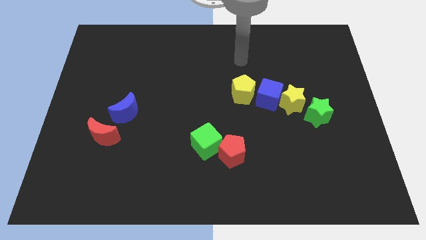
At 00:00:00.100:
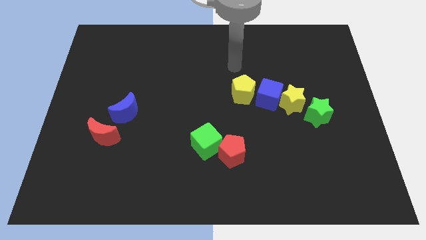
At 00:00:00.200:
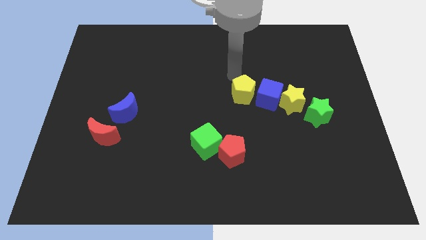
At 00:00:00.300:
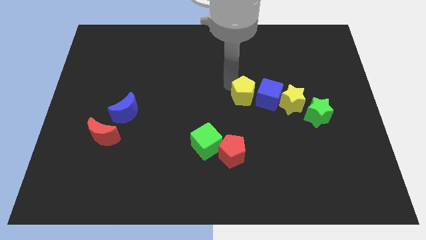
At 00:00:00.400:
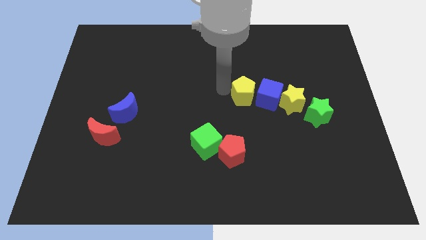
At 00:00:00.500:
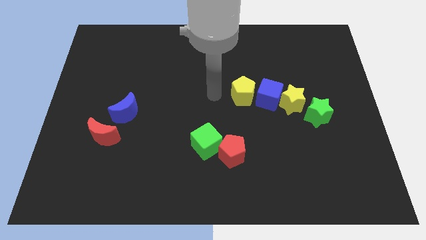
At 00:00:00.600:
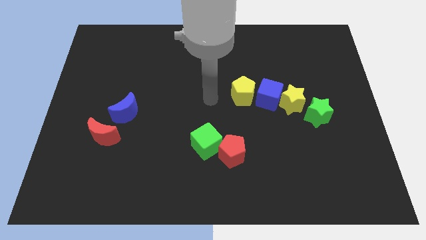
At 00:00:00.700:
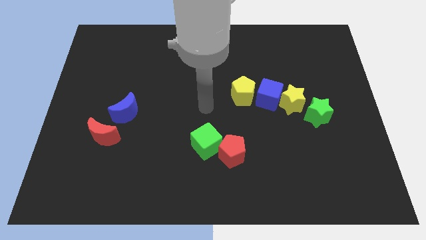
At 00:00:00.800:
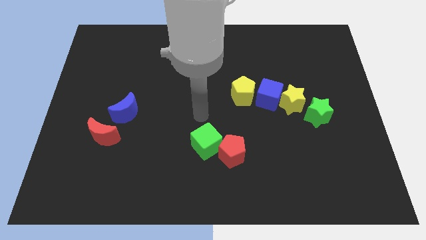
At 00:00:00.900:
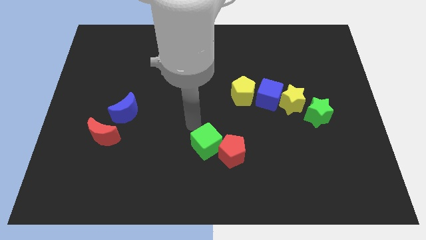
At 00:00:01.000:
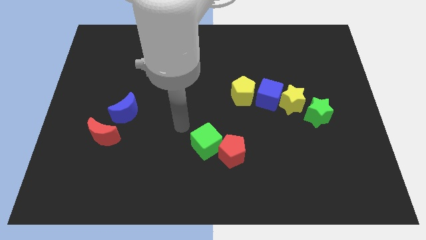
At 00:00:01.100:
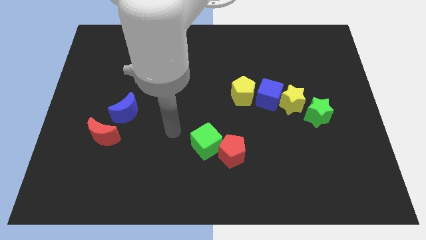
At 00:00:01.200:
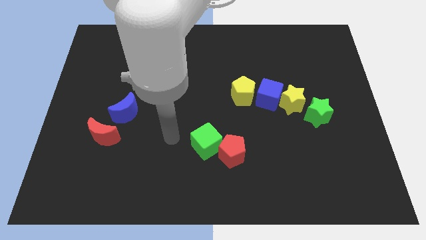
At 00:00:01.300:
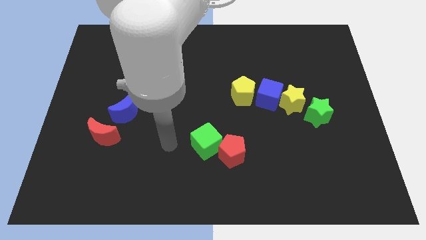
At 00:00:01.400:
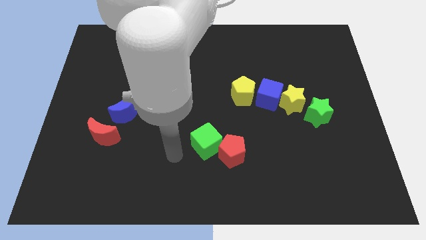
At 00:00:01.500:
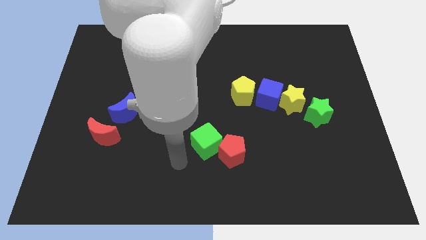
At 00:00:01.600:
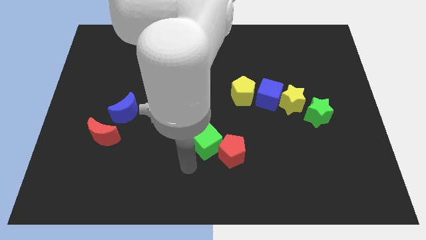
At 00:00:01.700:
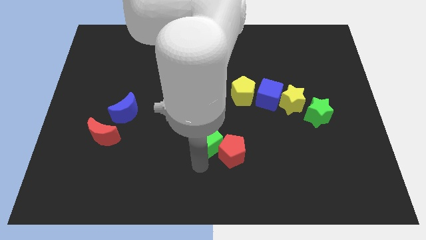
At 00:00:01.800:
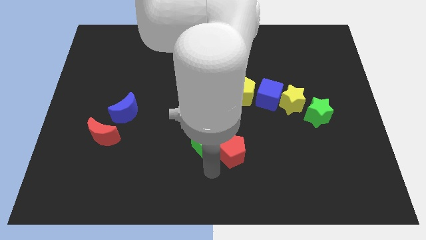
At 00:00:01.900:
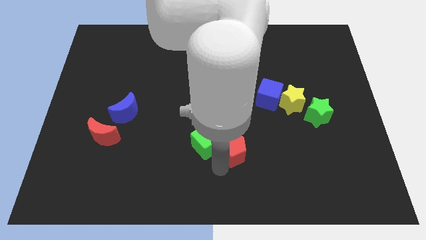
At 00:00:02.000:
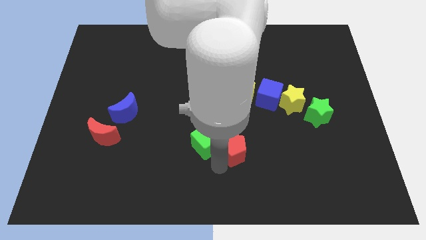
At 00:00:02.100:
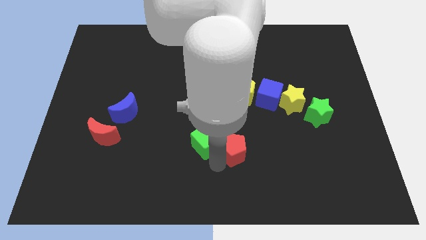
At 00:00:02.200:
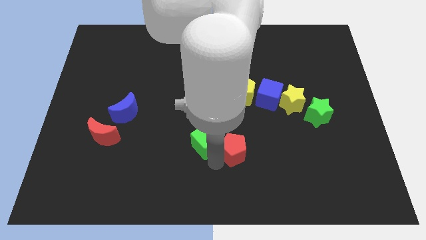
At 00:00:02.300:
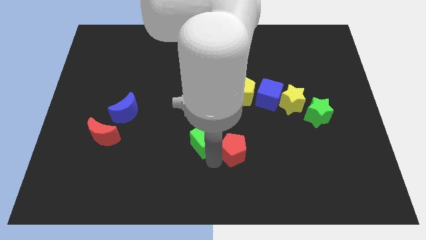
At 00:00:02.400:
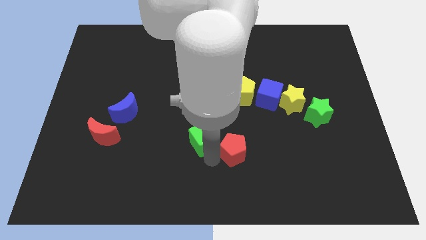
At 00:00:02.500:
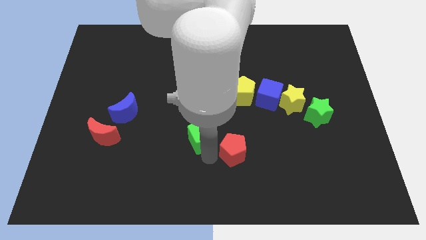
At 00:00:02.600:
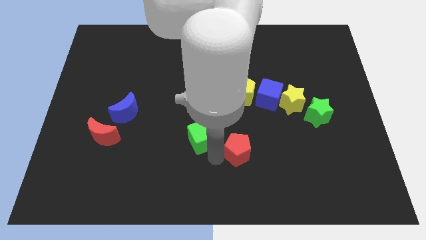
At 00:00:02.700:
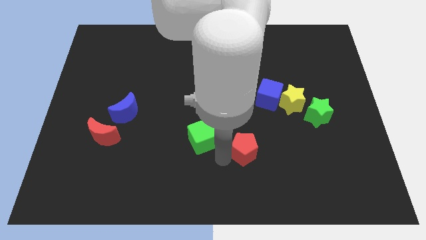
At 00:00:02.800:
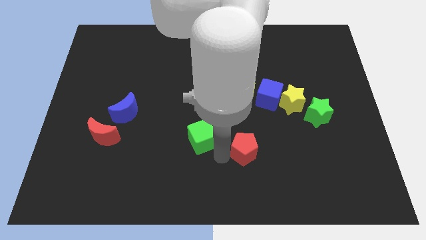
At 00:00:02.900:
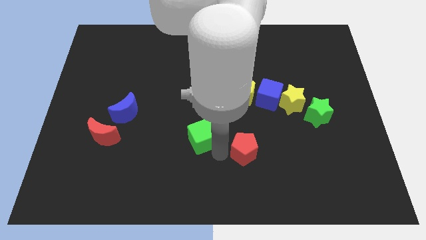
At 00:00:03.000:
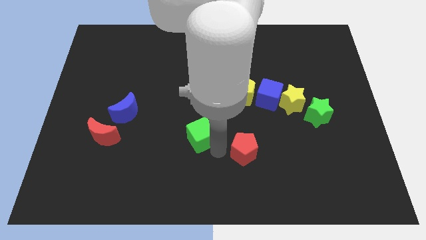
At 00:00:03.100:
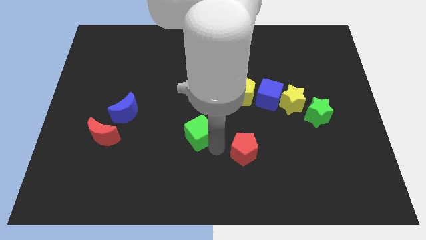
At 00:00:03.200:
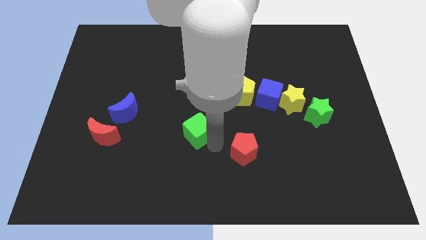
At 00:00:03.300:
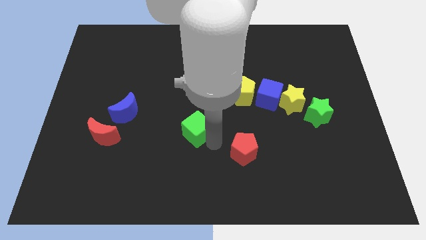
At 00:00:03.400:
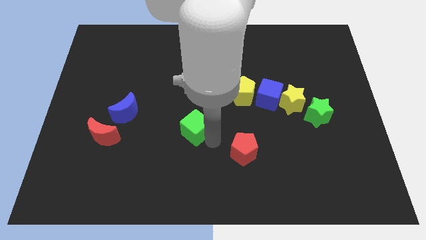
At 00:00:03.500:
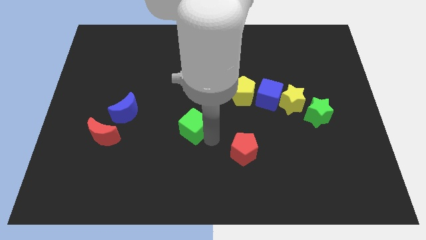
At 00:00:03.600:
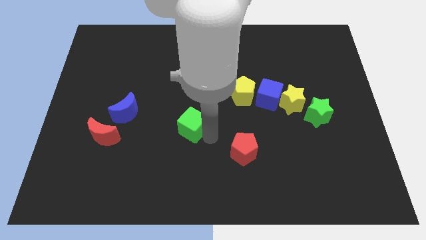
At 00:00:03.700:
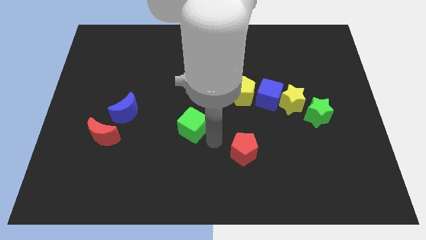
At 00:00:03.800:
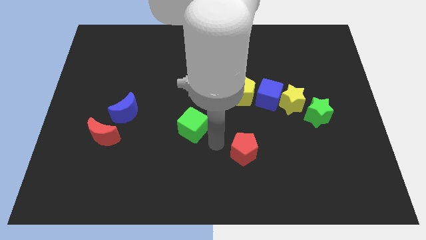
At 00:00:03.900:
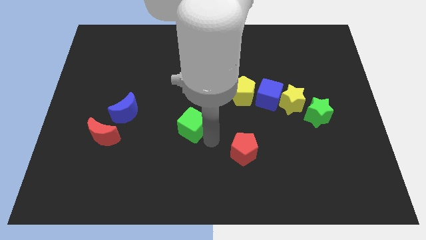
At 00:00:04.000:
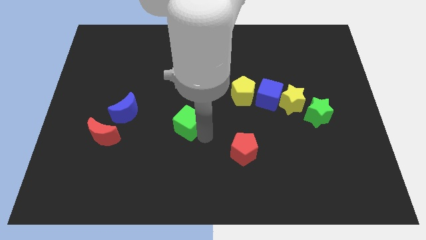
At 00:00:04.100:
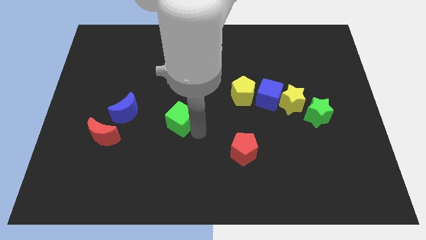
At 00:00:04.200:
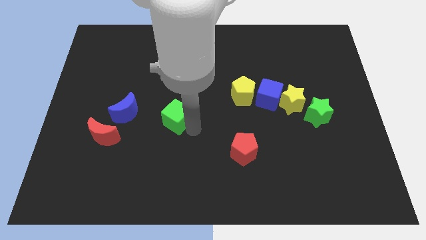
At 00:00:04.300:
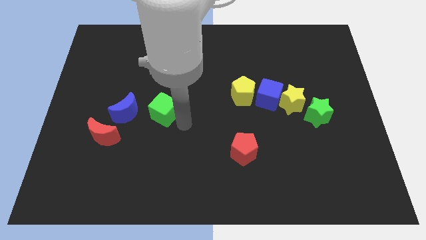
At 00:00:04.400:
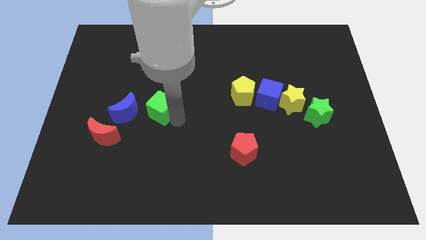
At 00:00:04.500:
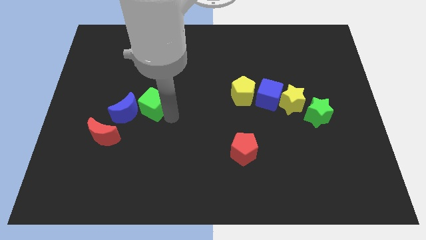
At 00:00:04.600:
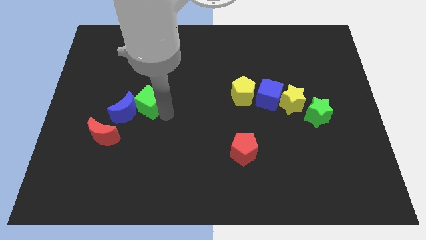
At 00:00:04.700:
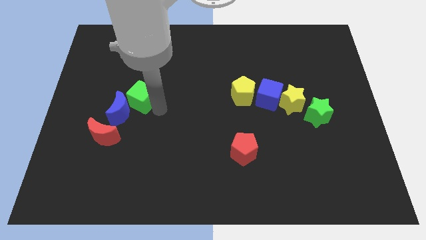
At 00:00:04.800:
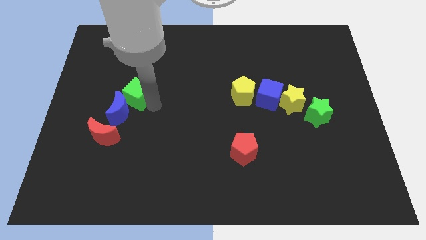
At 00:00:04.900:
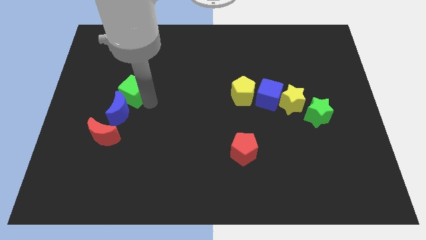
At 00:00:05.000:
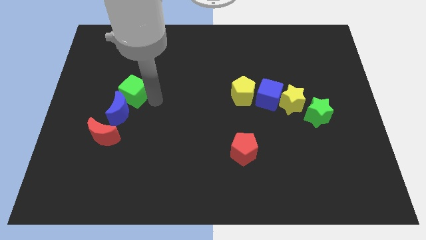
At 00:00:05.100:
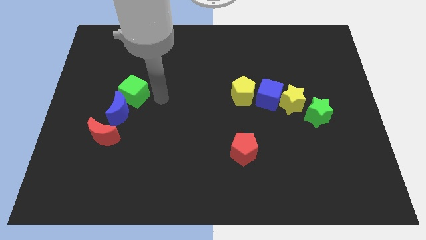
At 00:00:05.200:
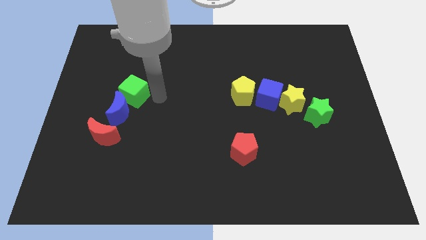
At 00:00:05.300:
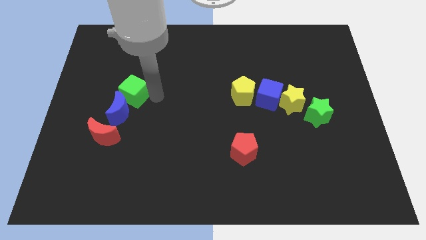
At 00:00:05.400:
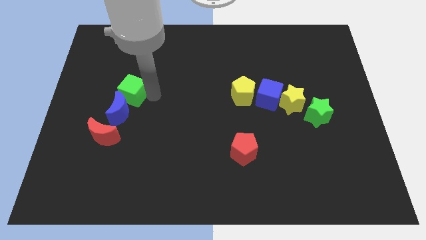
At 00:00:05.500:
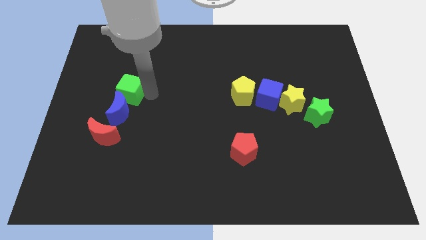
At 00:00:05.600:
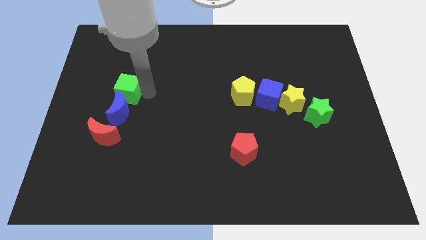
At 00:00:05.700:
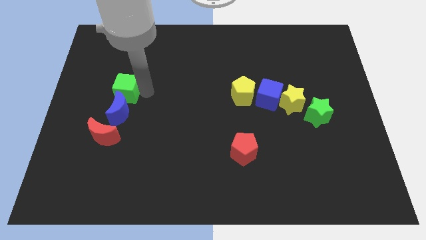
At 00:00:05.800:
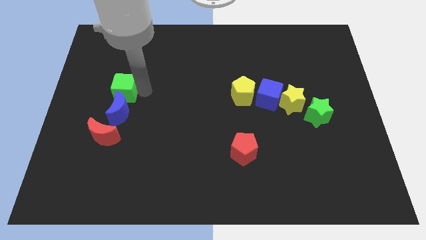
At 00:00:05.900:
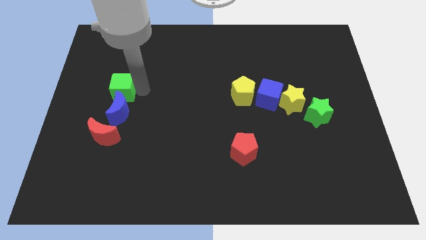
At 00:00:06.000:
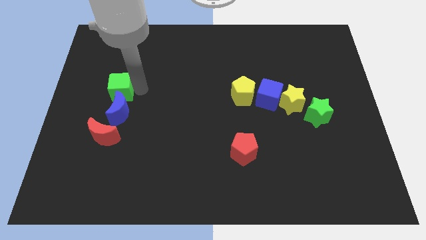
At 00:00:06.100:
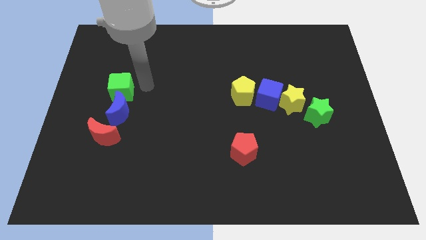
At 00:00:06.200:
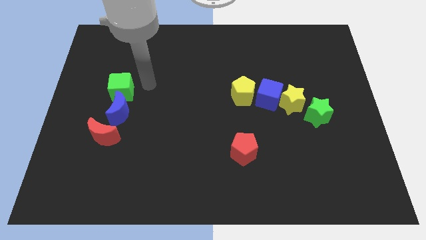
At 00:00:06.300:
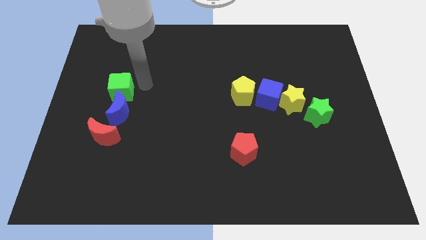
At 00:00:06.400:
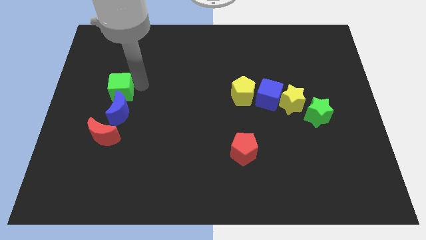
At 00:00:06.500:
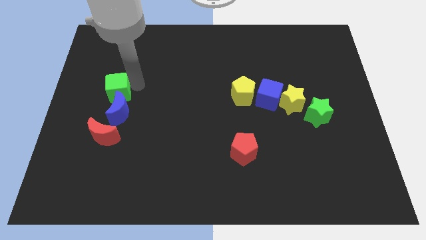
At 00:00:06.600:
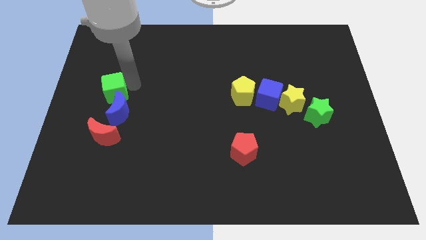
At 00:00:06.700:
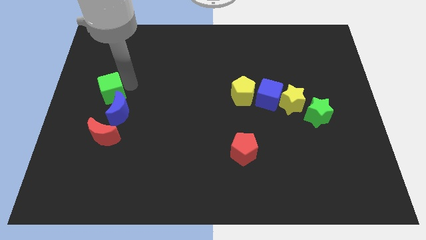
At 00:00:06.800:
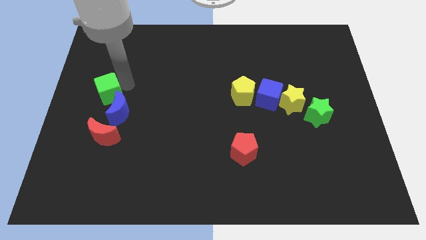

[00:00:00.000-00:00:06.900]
put the green cube to the center left

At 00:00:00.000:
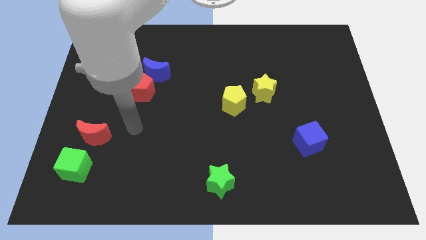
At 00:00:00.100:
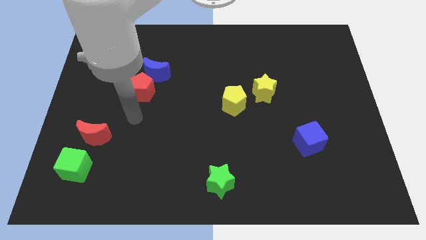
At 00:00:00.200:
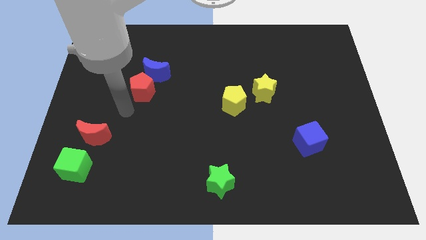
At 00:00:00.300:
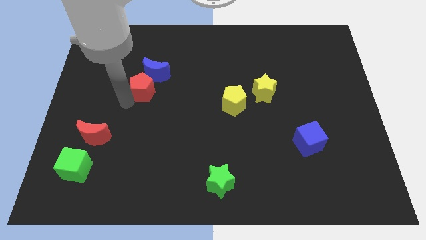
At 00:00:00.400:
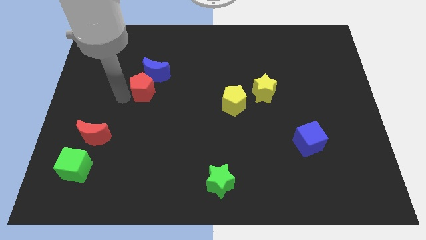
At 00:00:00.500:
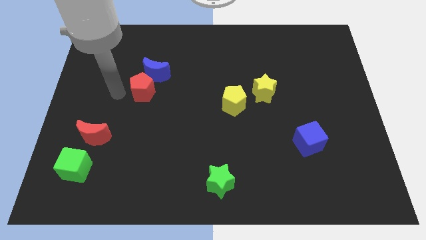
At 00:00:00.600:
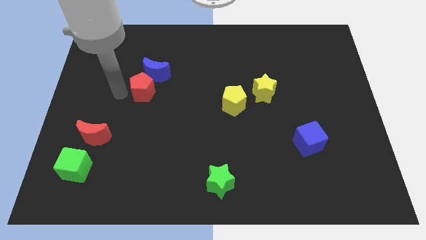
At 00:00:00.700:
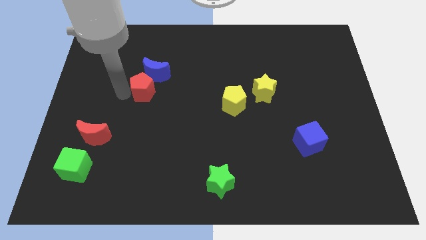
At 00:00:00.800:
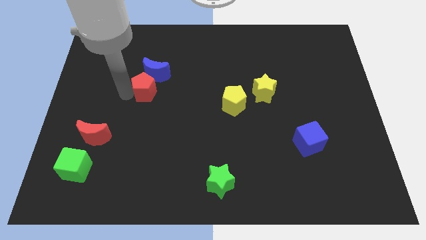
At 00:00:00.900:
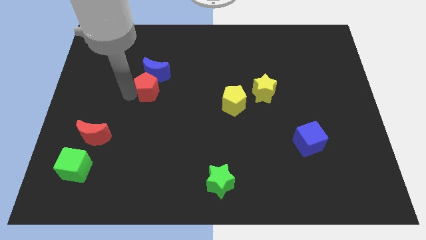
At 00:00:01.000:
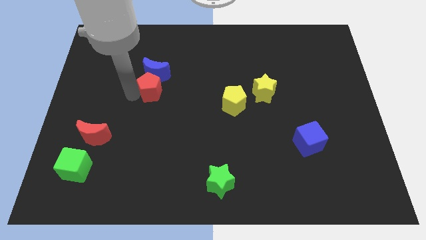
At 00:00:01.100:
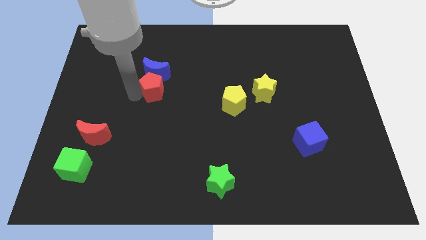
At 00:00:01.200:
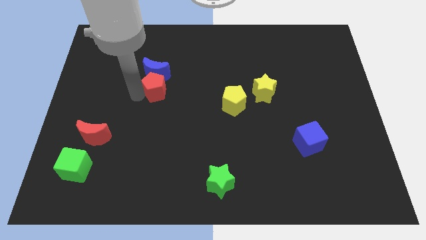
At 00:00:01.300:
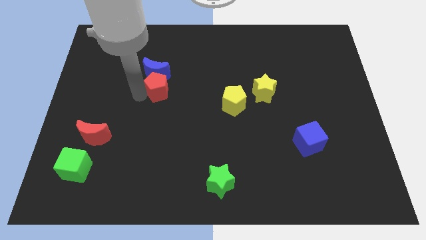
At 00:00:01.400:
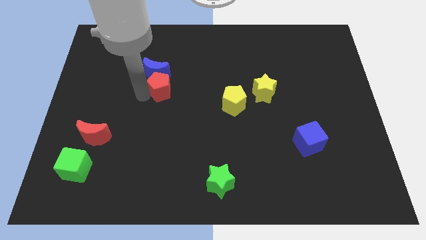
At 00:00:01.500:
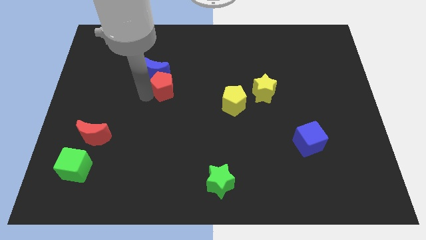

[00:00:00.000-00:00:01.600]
move the red pentagon to the center of the board
